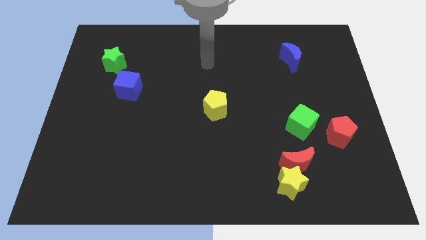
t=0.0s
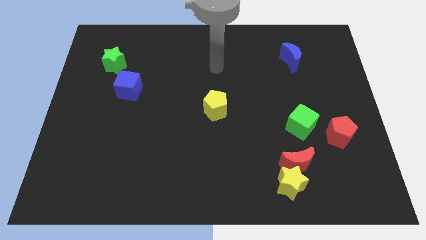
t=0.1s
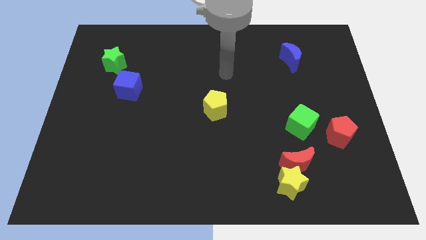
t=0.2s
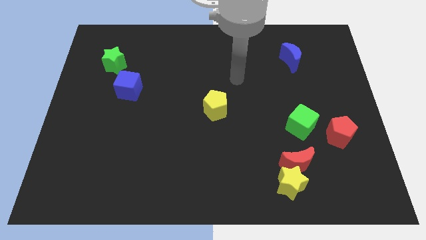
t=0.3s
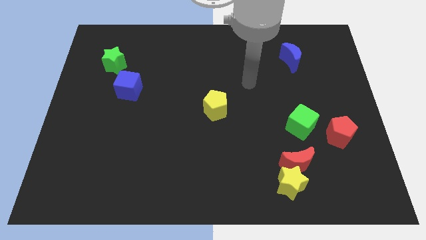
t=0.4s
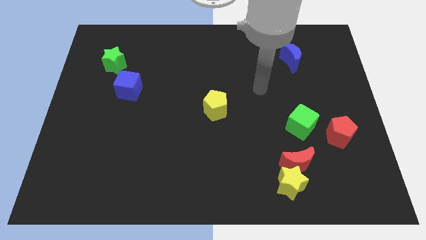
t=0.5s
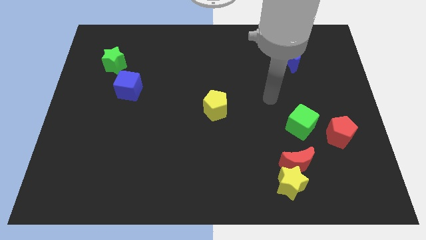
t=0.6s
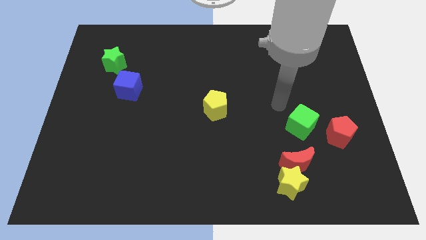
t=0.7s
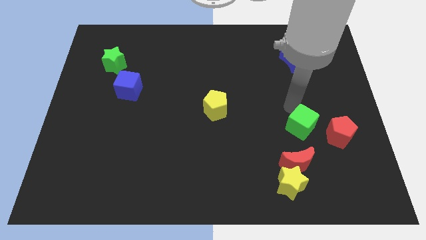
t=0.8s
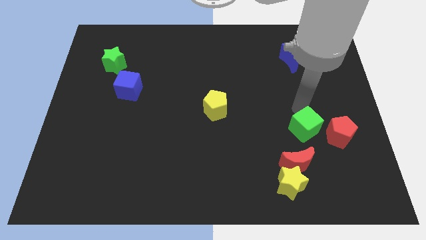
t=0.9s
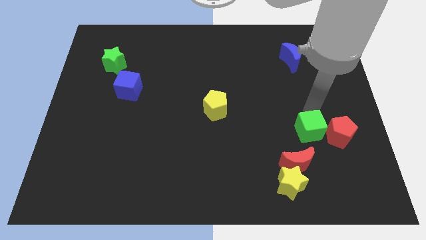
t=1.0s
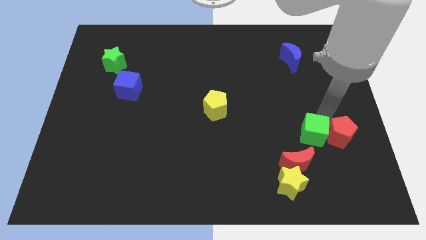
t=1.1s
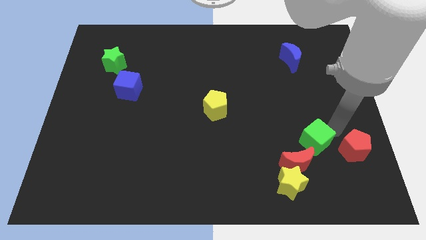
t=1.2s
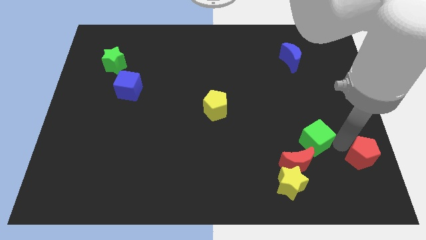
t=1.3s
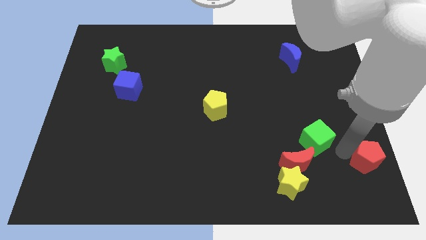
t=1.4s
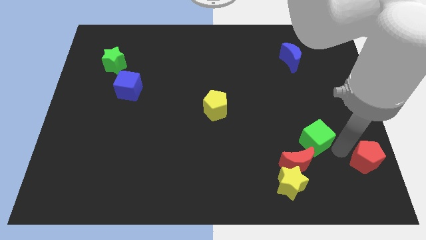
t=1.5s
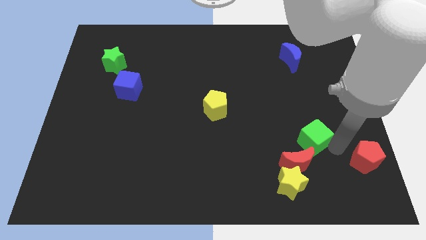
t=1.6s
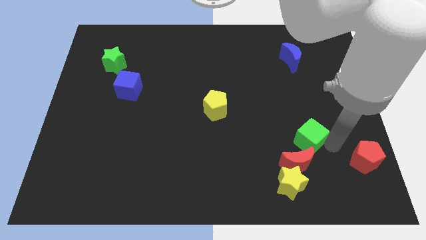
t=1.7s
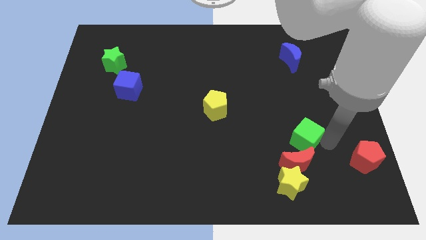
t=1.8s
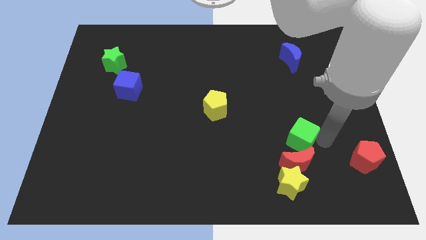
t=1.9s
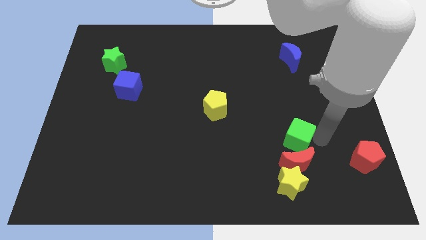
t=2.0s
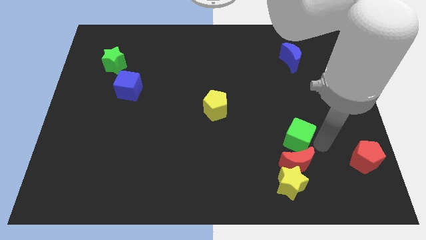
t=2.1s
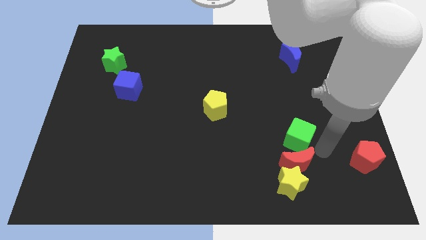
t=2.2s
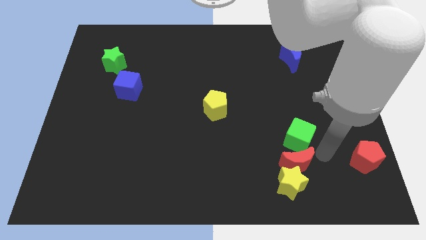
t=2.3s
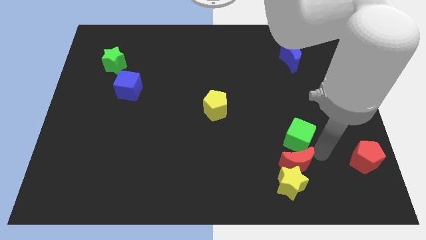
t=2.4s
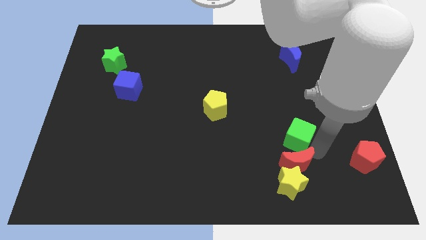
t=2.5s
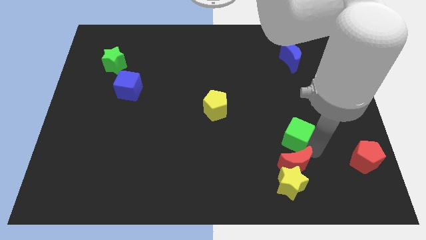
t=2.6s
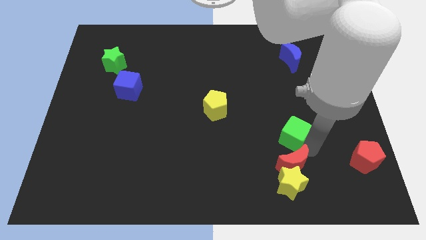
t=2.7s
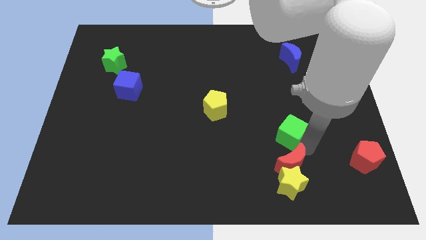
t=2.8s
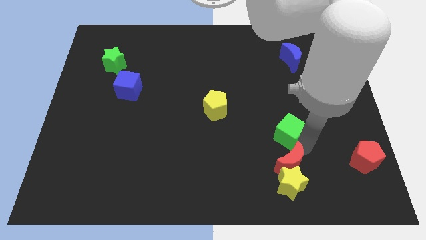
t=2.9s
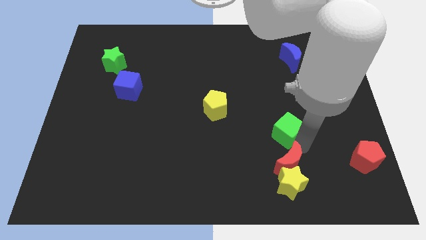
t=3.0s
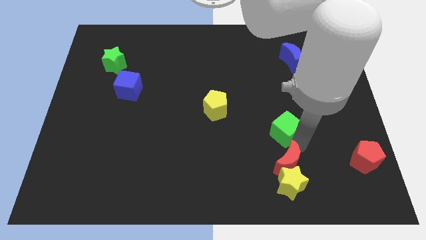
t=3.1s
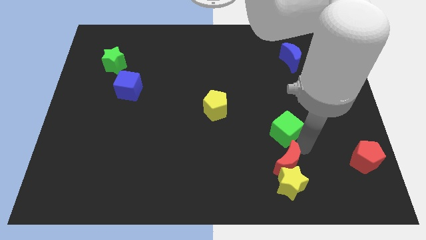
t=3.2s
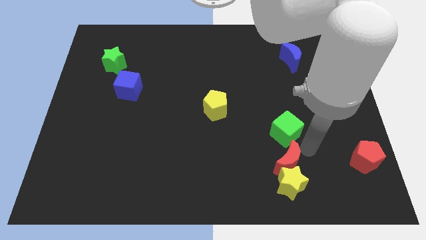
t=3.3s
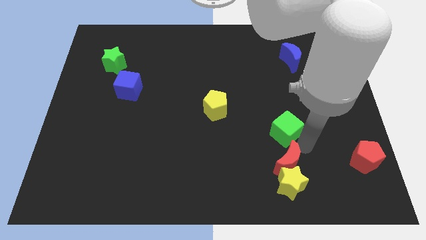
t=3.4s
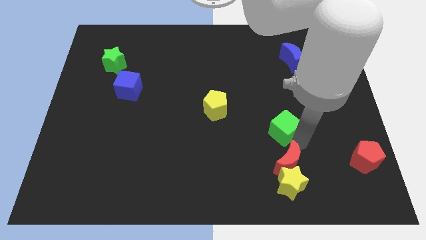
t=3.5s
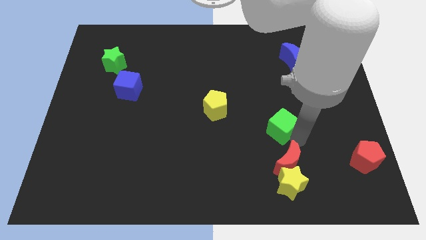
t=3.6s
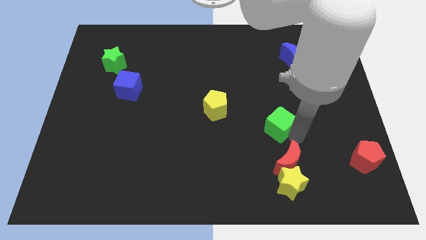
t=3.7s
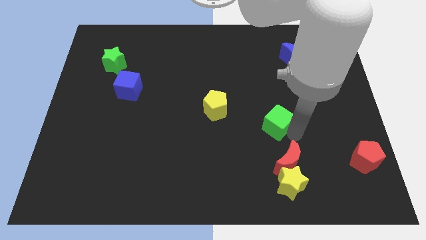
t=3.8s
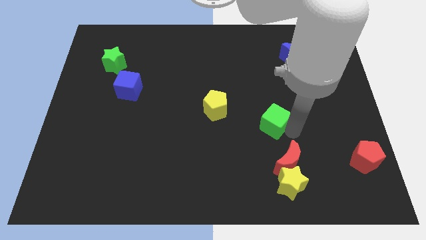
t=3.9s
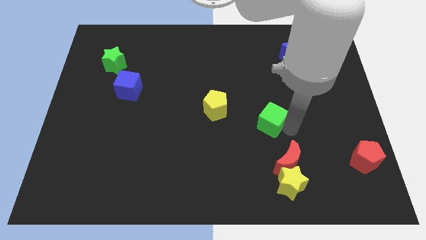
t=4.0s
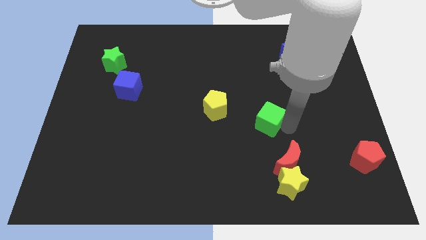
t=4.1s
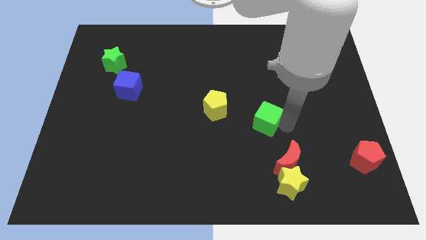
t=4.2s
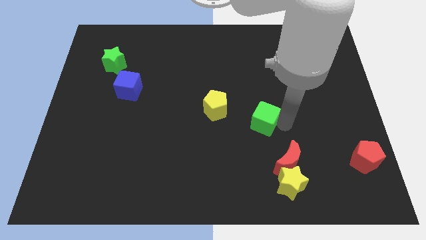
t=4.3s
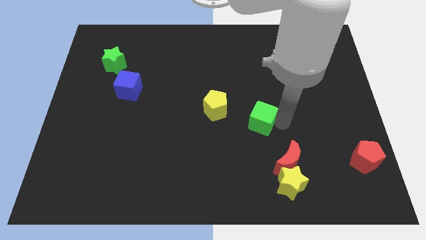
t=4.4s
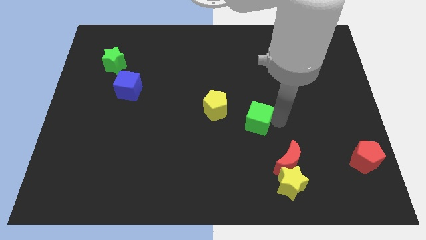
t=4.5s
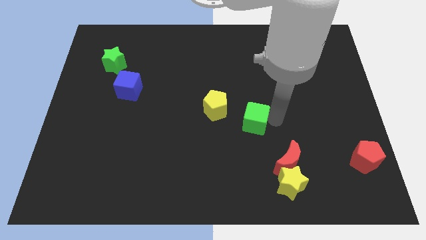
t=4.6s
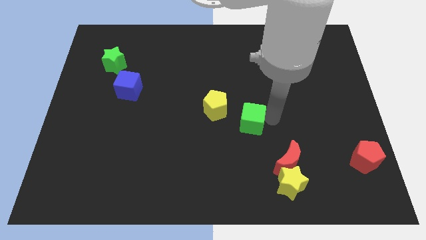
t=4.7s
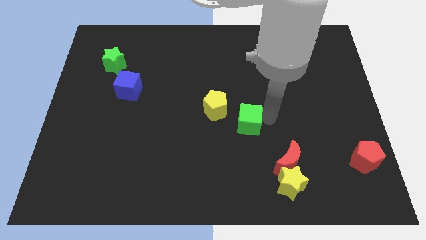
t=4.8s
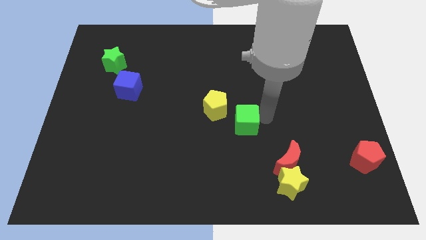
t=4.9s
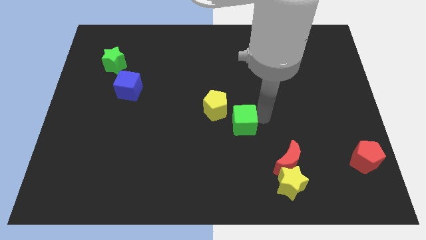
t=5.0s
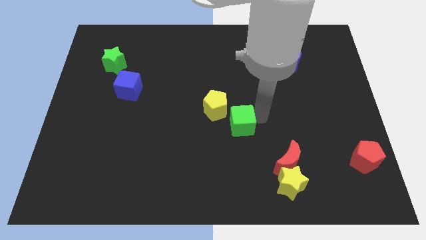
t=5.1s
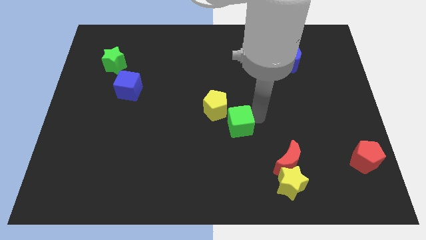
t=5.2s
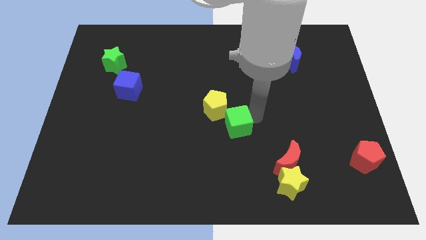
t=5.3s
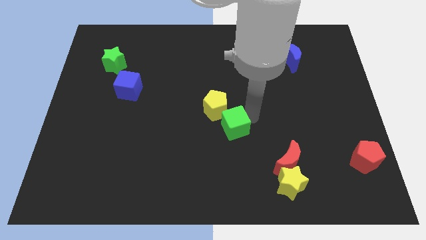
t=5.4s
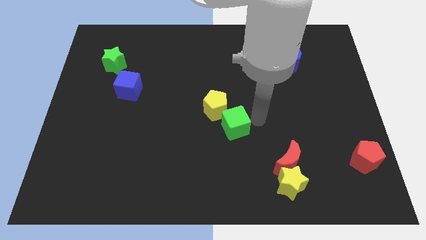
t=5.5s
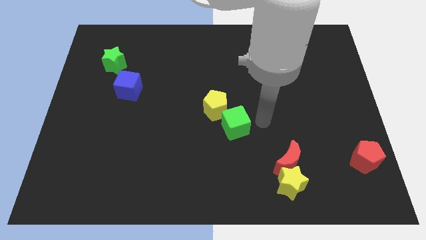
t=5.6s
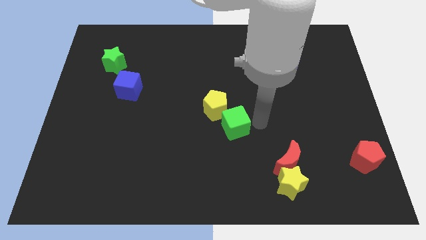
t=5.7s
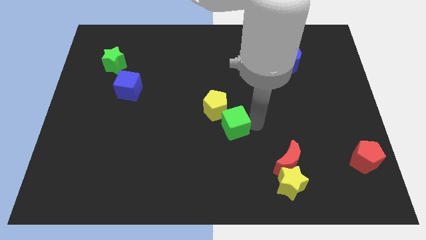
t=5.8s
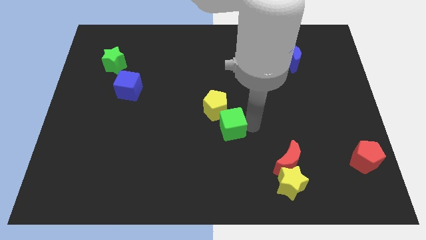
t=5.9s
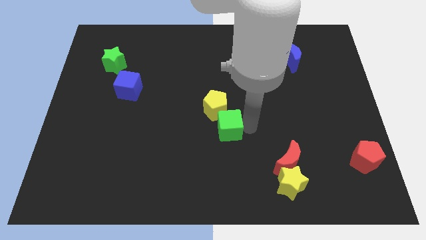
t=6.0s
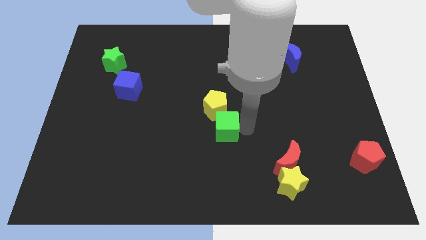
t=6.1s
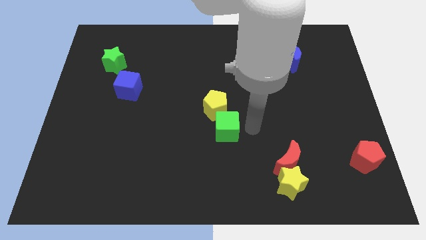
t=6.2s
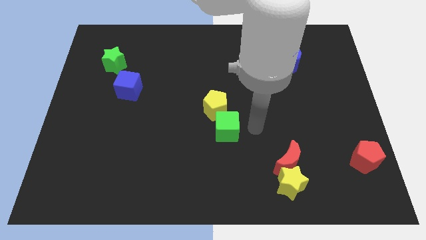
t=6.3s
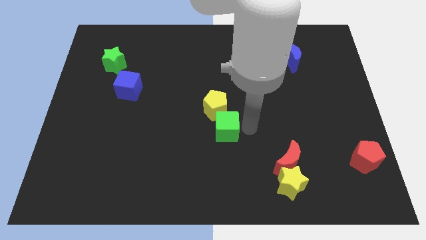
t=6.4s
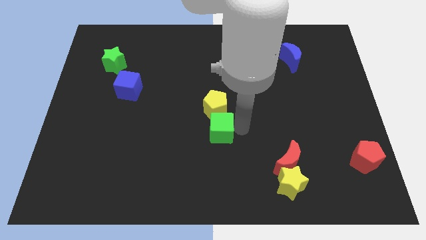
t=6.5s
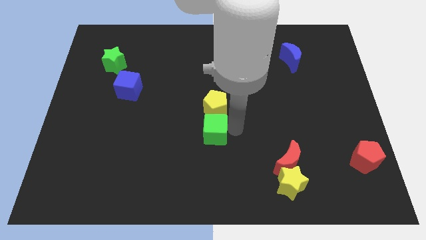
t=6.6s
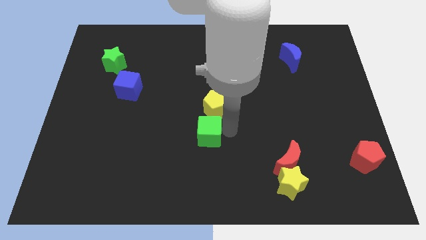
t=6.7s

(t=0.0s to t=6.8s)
push the green cube to the left

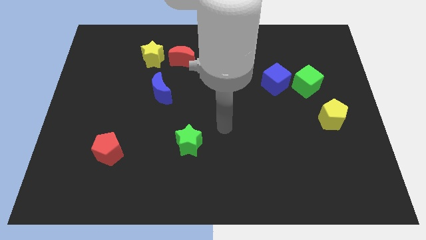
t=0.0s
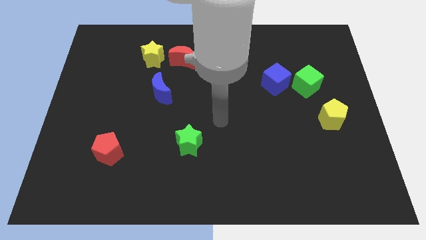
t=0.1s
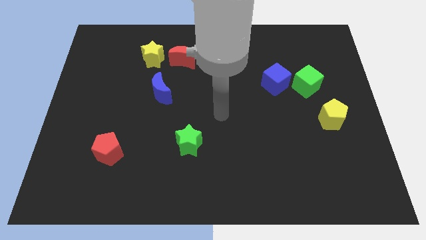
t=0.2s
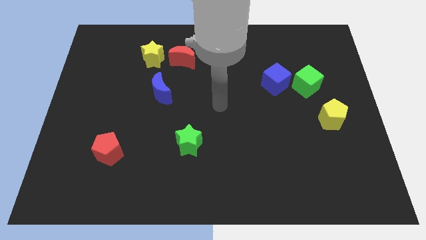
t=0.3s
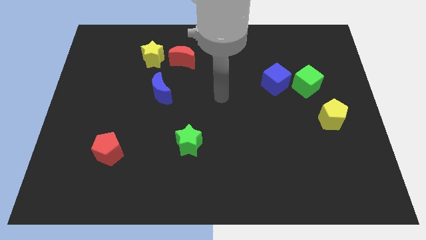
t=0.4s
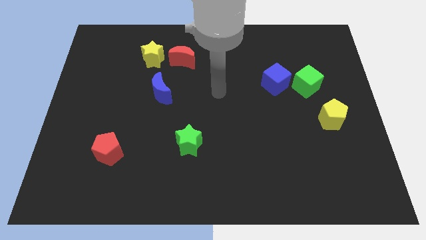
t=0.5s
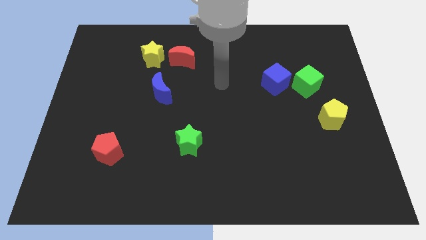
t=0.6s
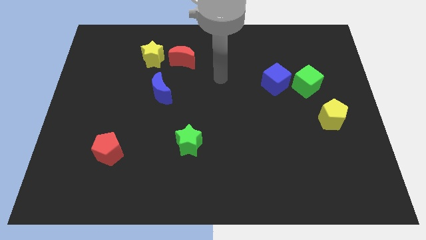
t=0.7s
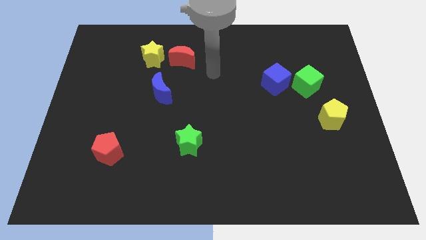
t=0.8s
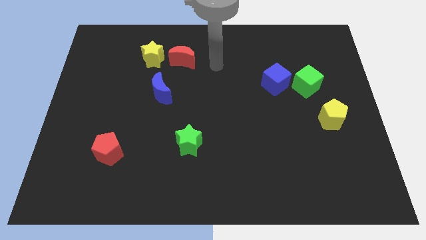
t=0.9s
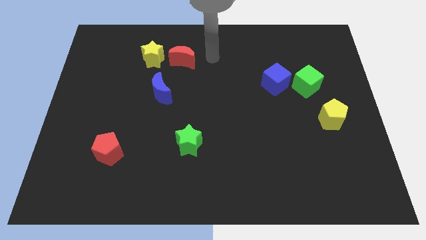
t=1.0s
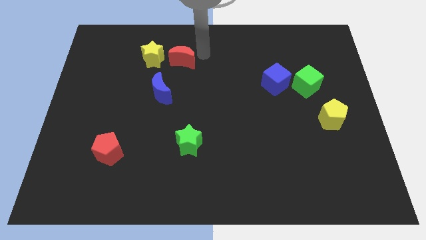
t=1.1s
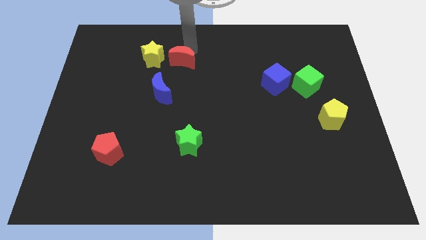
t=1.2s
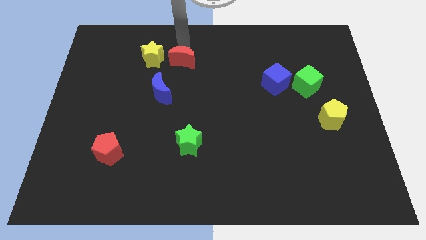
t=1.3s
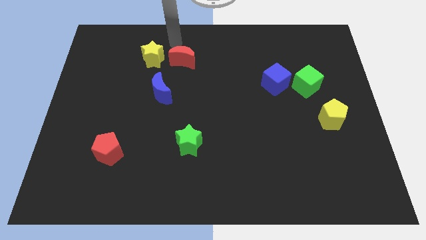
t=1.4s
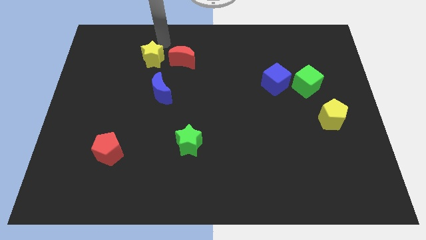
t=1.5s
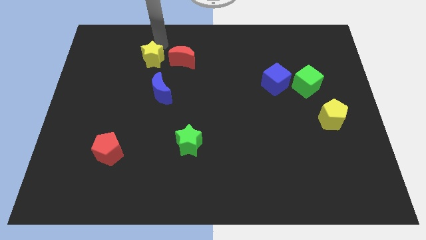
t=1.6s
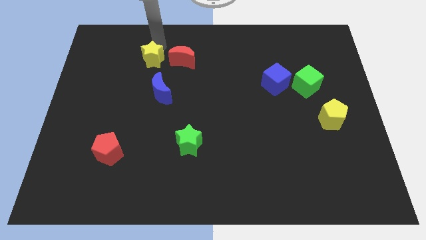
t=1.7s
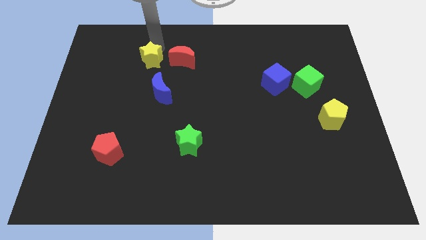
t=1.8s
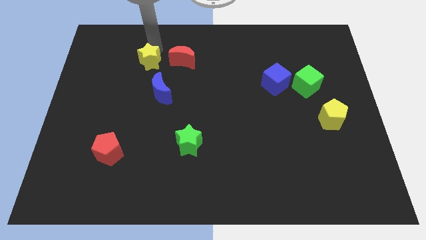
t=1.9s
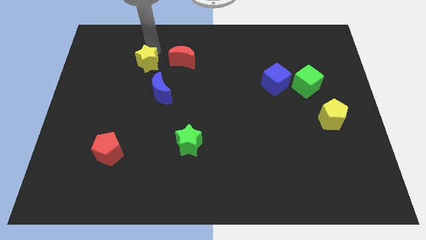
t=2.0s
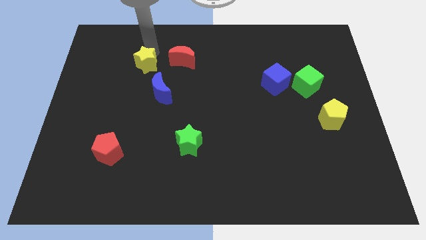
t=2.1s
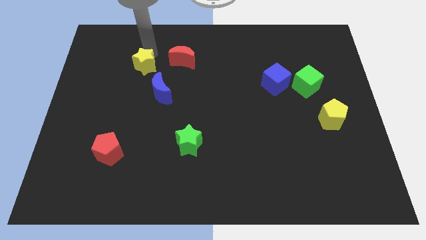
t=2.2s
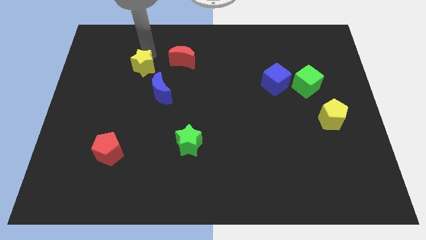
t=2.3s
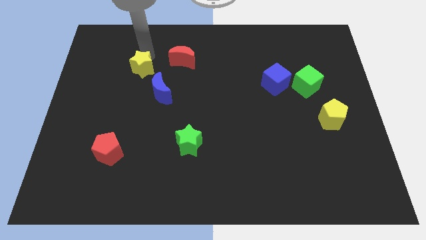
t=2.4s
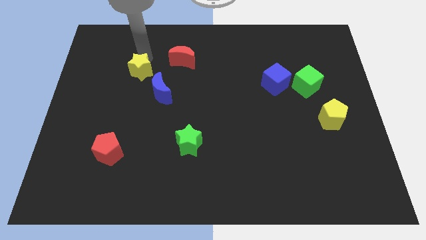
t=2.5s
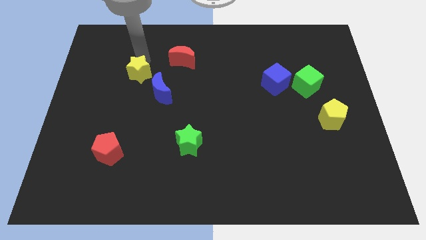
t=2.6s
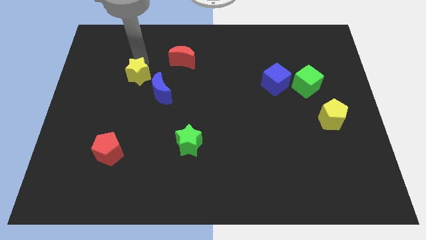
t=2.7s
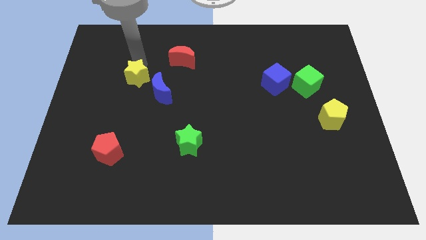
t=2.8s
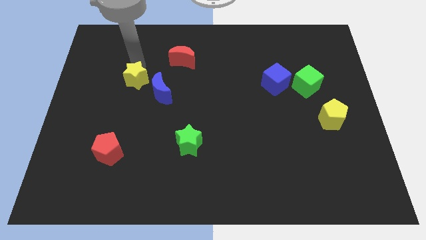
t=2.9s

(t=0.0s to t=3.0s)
slide the yellow star a little bit down
